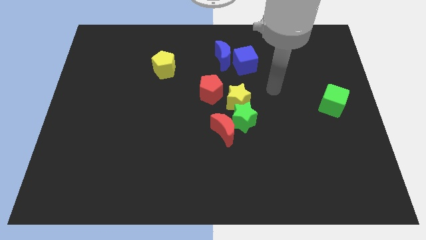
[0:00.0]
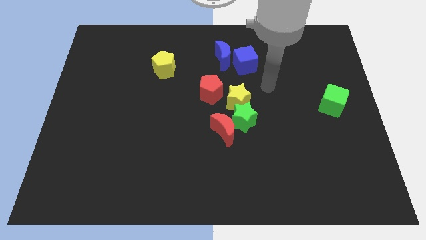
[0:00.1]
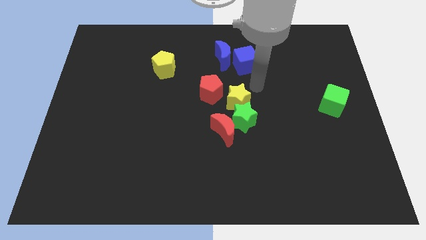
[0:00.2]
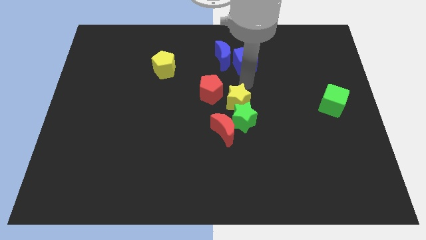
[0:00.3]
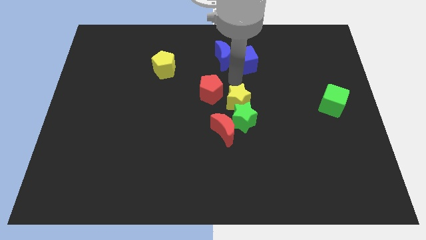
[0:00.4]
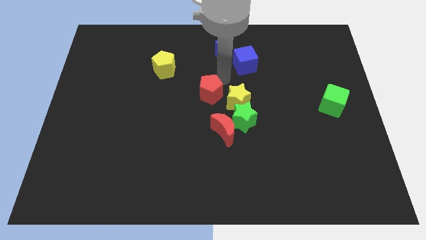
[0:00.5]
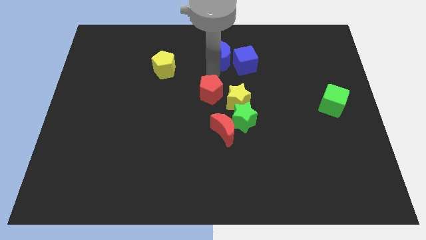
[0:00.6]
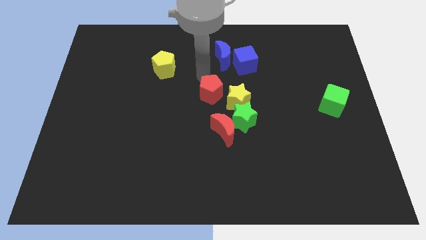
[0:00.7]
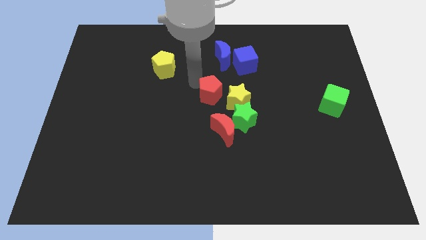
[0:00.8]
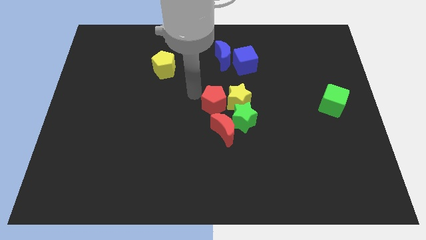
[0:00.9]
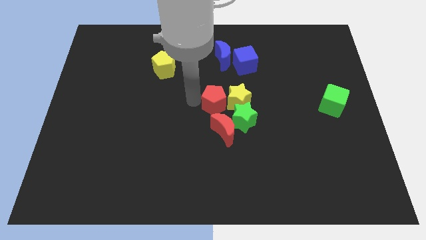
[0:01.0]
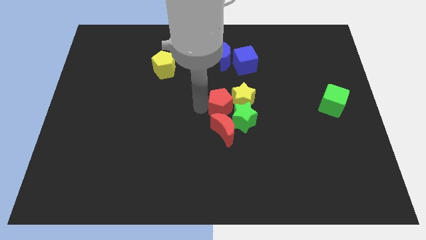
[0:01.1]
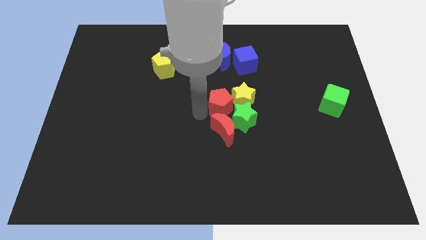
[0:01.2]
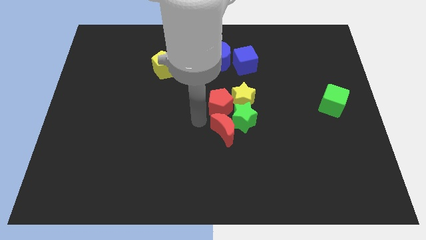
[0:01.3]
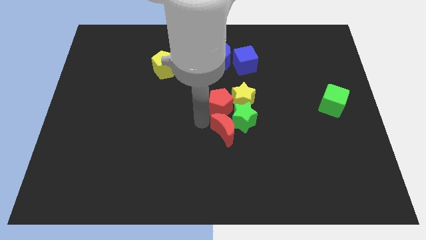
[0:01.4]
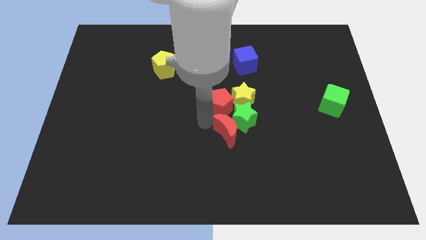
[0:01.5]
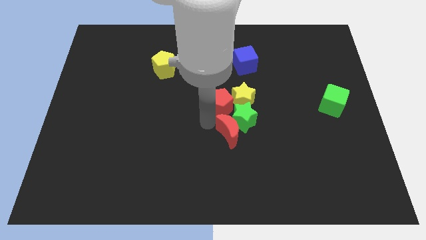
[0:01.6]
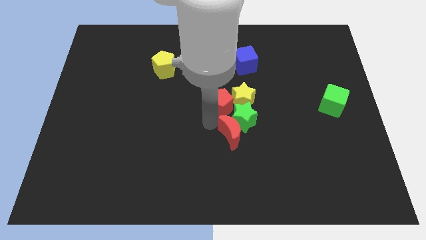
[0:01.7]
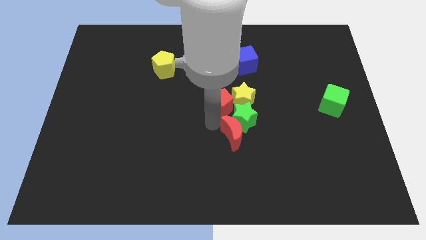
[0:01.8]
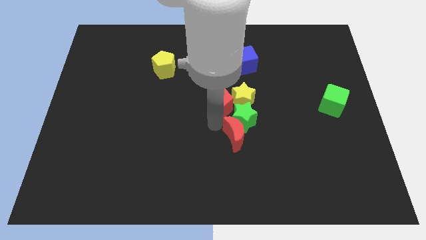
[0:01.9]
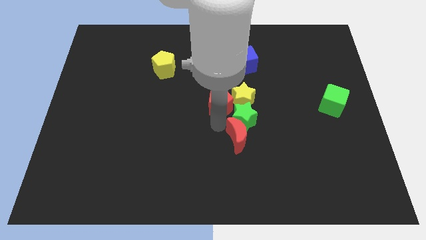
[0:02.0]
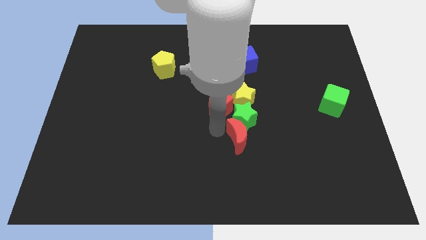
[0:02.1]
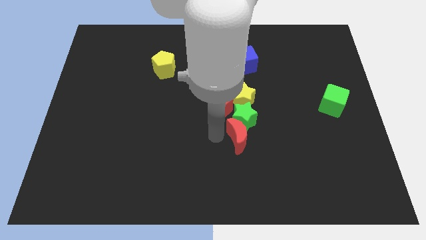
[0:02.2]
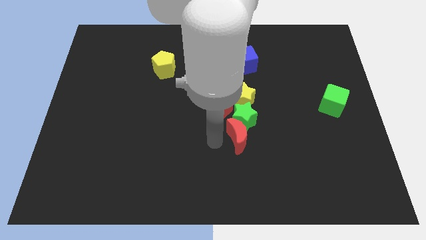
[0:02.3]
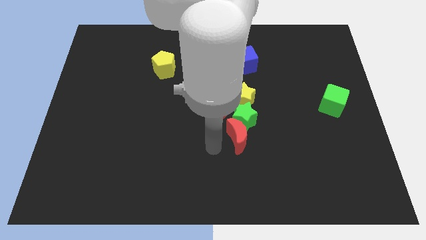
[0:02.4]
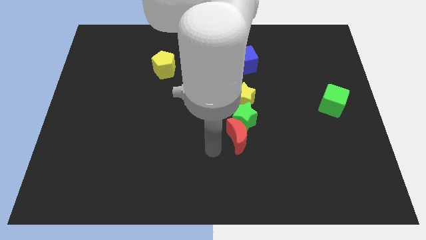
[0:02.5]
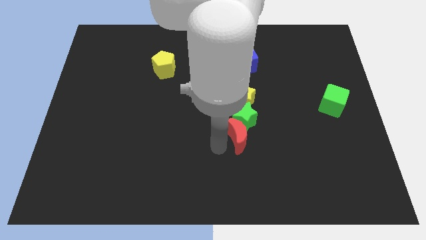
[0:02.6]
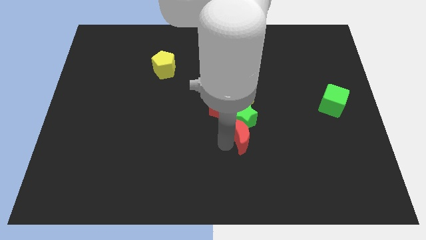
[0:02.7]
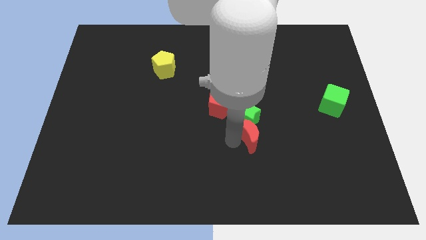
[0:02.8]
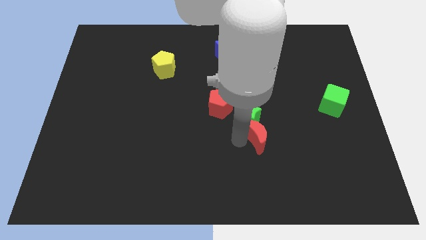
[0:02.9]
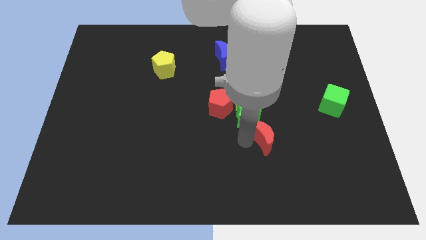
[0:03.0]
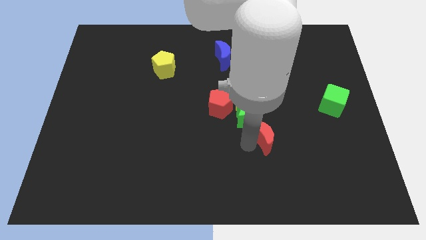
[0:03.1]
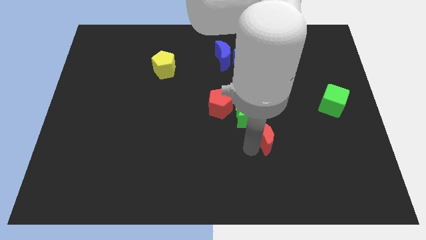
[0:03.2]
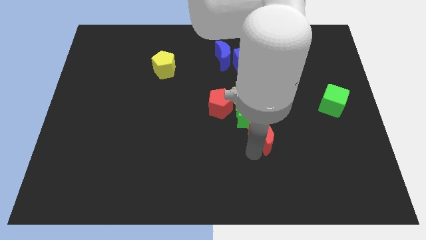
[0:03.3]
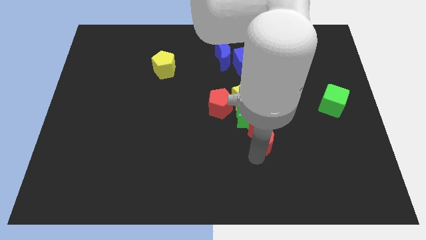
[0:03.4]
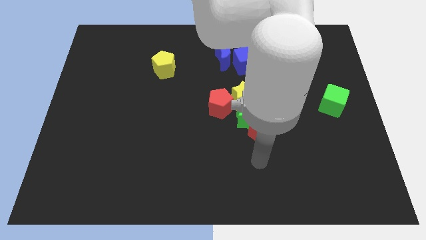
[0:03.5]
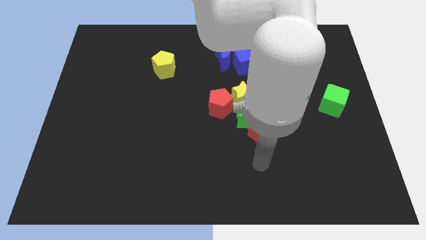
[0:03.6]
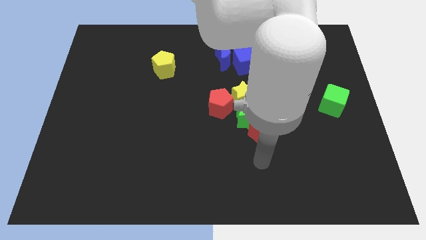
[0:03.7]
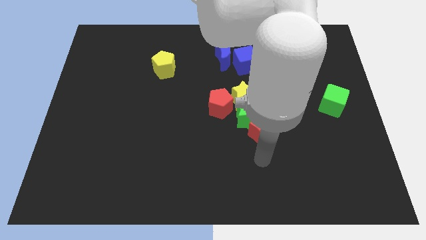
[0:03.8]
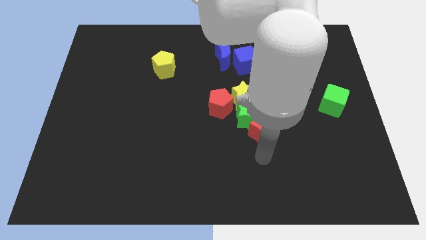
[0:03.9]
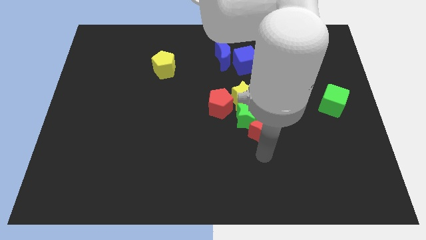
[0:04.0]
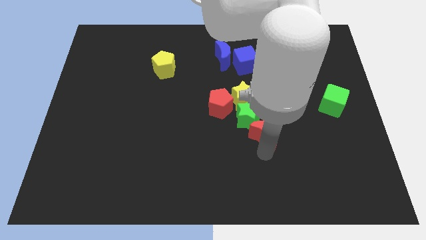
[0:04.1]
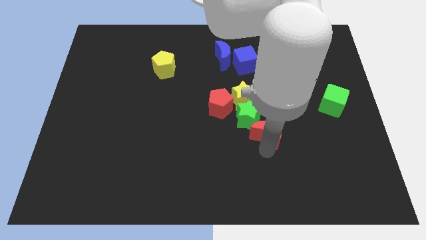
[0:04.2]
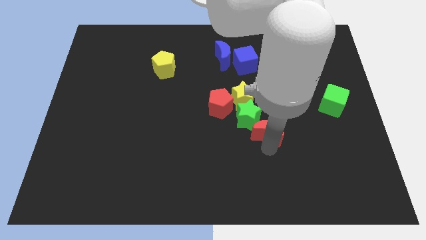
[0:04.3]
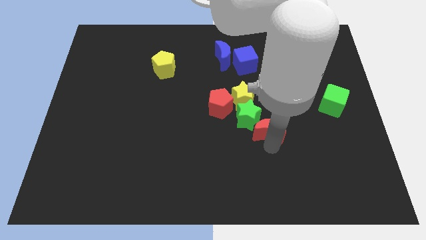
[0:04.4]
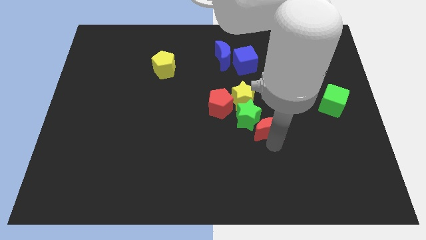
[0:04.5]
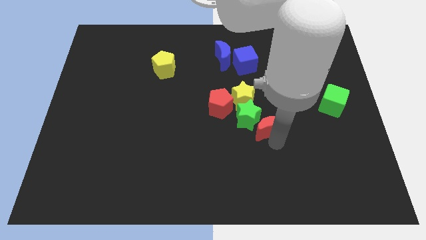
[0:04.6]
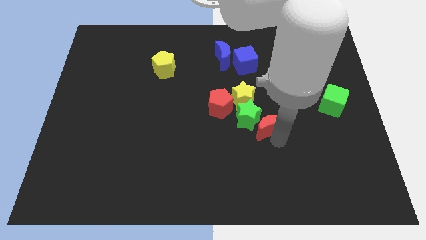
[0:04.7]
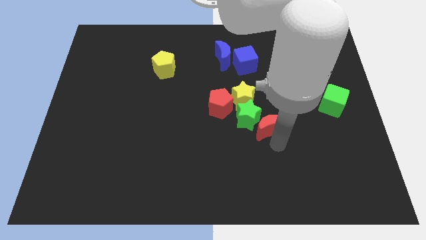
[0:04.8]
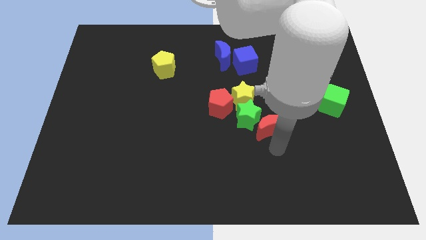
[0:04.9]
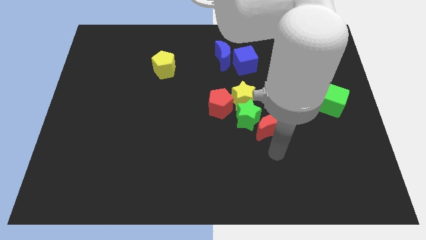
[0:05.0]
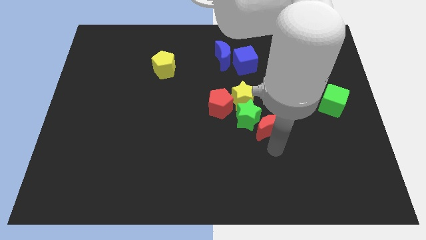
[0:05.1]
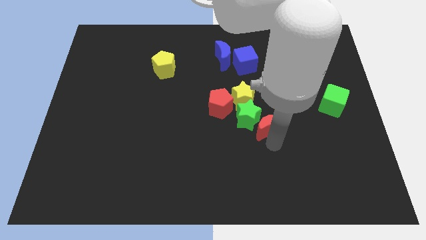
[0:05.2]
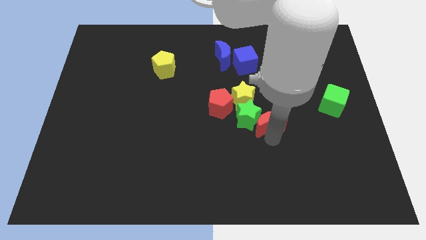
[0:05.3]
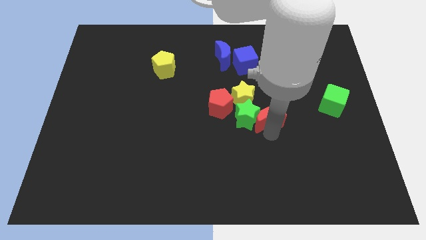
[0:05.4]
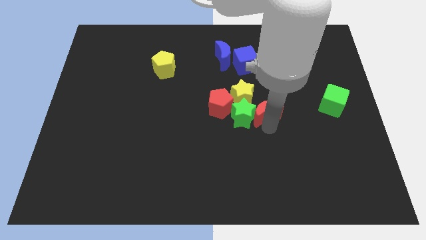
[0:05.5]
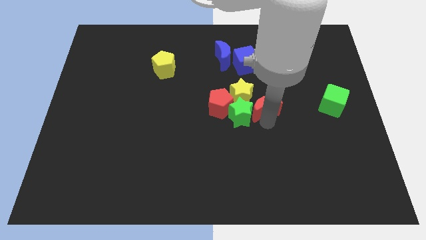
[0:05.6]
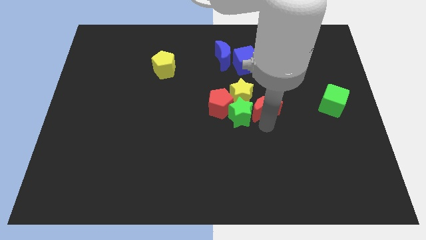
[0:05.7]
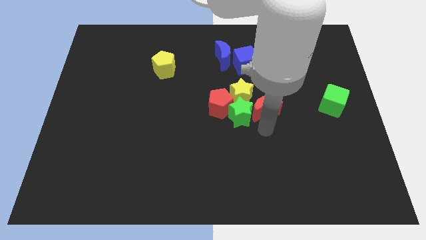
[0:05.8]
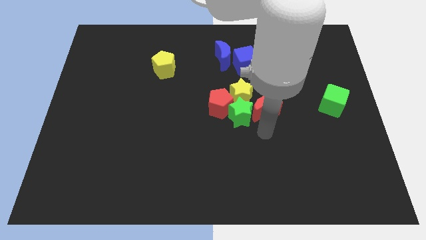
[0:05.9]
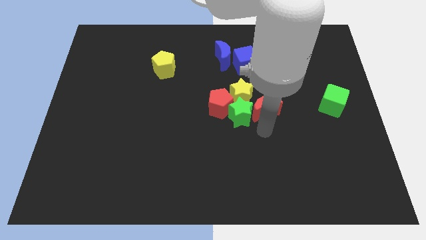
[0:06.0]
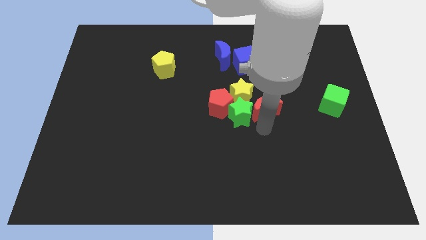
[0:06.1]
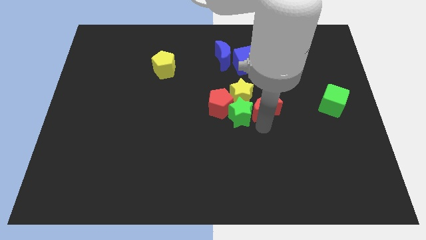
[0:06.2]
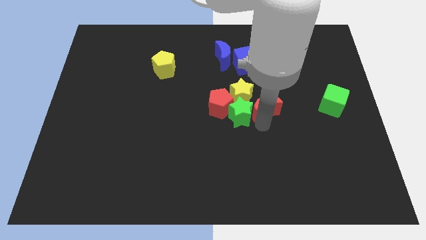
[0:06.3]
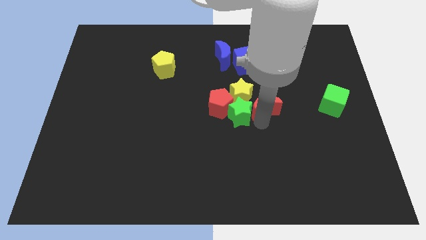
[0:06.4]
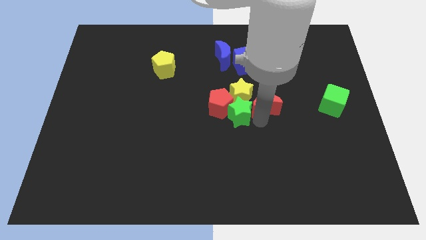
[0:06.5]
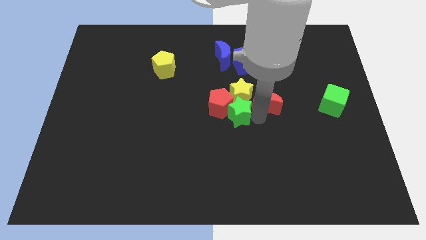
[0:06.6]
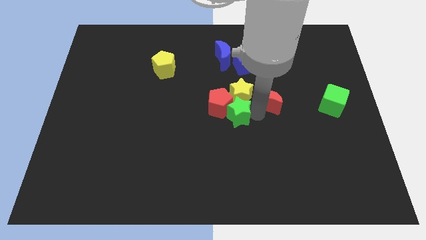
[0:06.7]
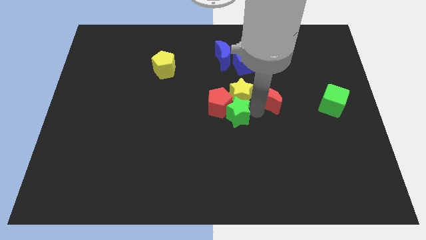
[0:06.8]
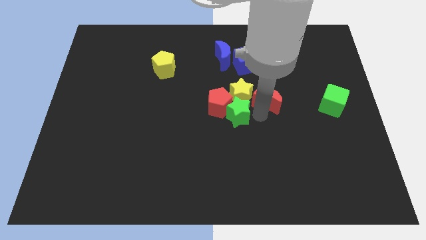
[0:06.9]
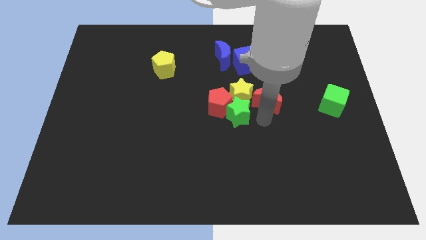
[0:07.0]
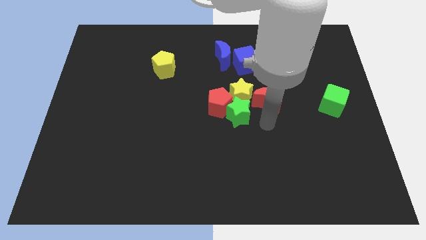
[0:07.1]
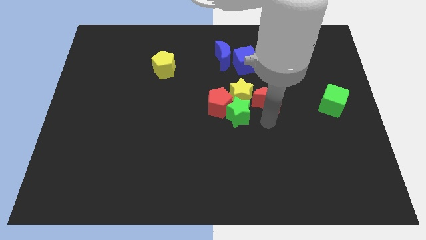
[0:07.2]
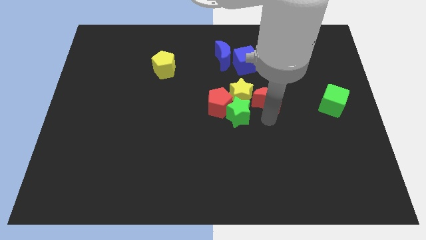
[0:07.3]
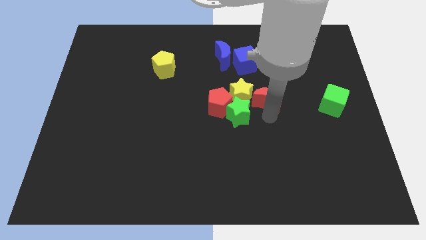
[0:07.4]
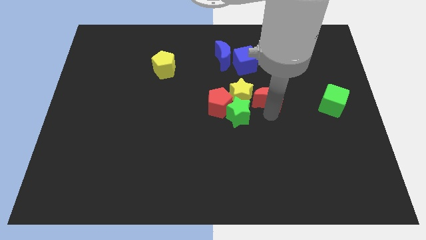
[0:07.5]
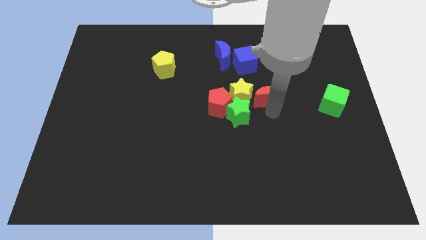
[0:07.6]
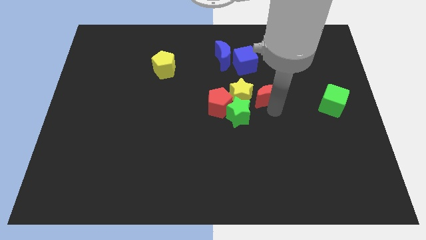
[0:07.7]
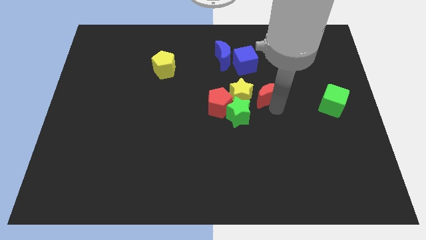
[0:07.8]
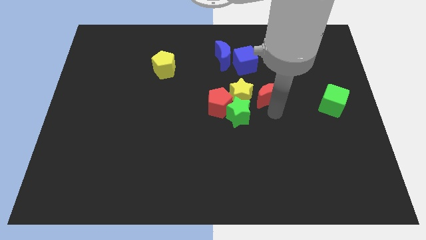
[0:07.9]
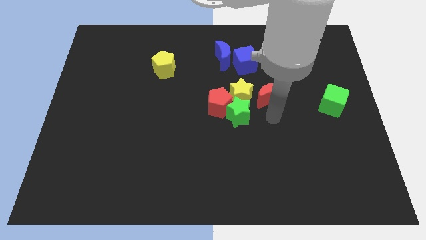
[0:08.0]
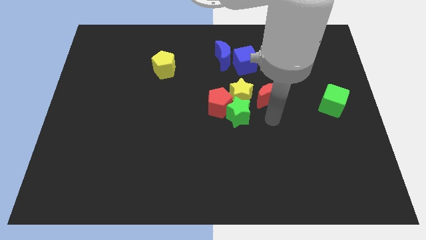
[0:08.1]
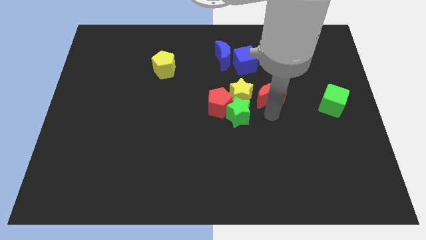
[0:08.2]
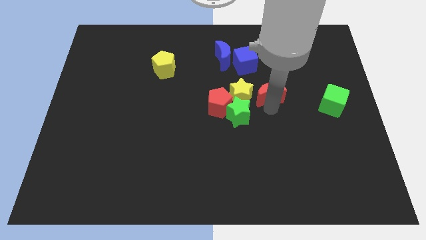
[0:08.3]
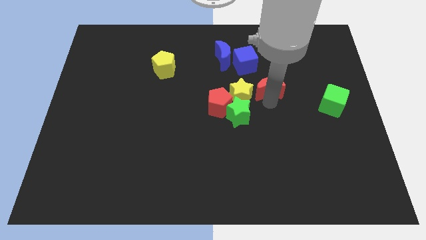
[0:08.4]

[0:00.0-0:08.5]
push the red moon to the bottom right side of the blue cube
